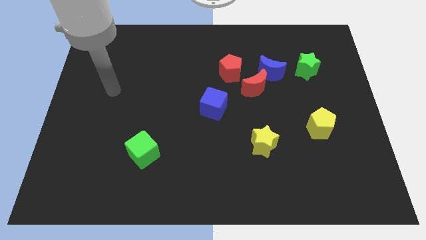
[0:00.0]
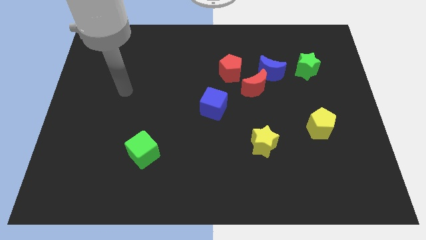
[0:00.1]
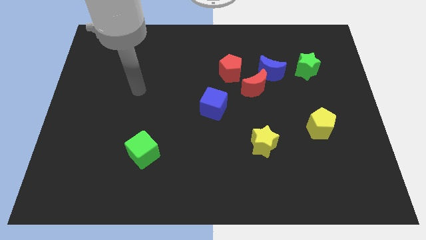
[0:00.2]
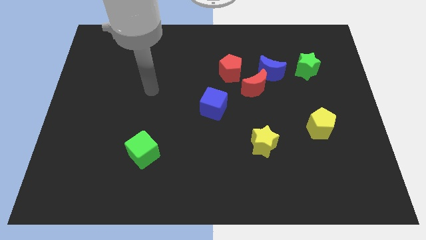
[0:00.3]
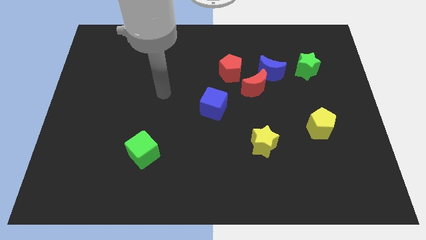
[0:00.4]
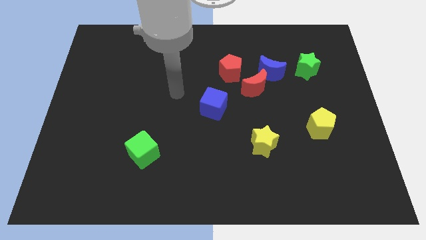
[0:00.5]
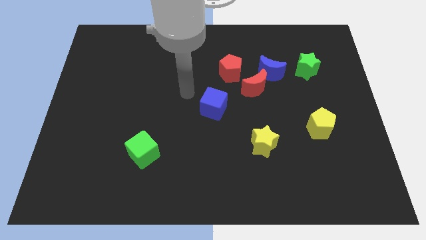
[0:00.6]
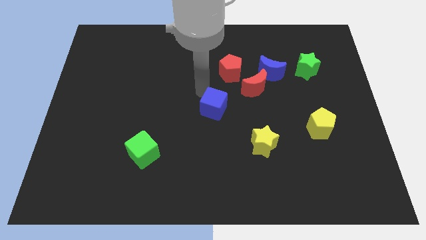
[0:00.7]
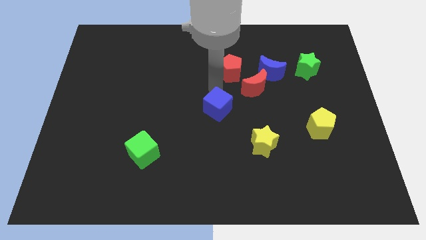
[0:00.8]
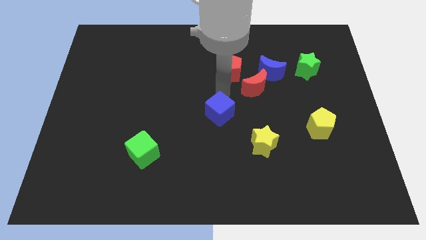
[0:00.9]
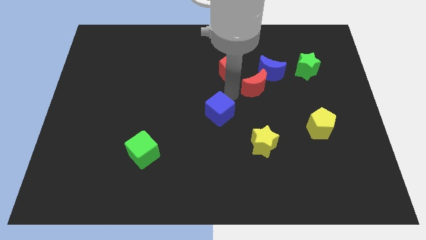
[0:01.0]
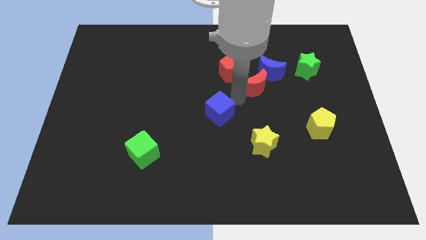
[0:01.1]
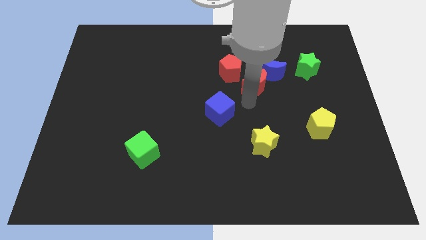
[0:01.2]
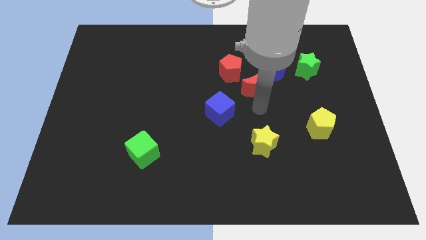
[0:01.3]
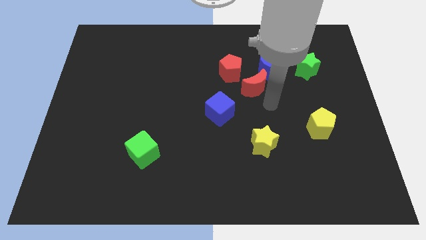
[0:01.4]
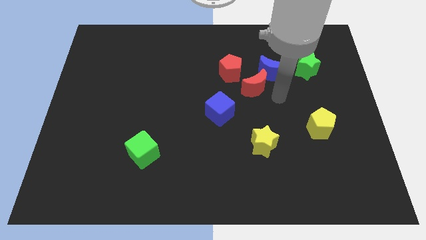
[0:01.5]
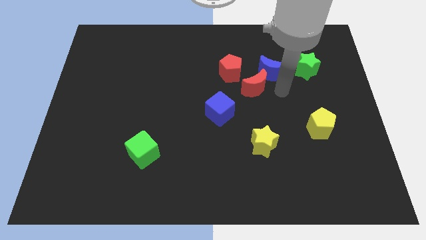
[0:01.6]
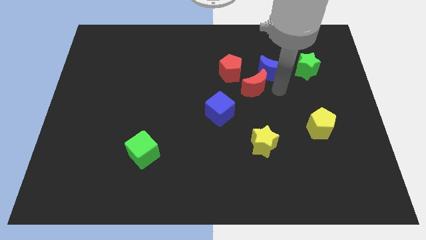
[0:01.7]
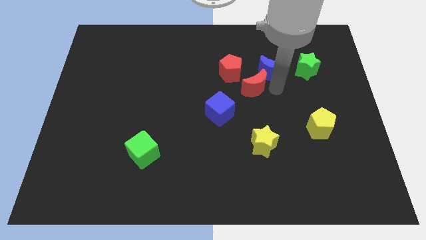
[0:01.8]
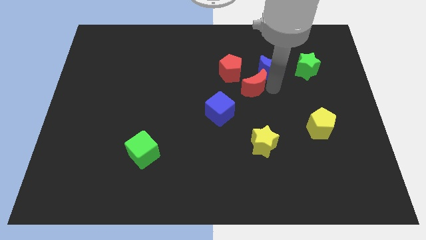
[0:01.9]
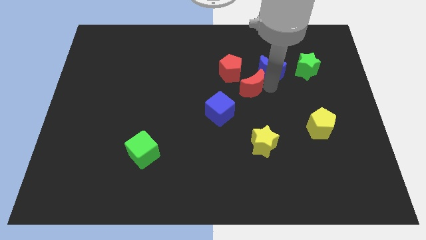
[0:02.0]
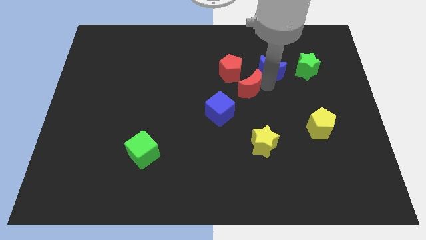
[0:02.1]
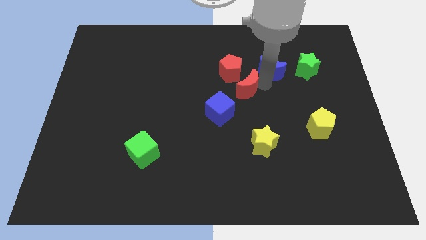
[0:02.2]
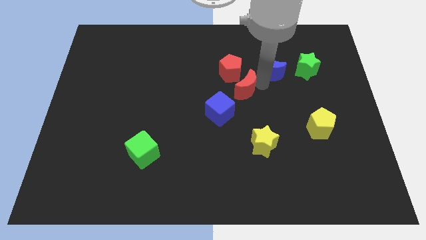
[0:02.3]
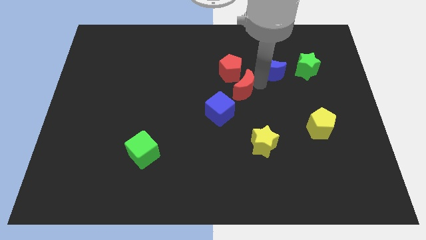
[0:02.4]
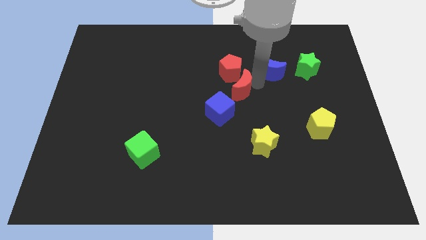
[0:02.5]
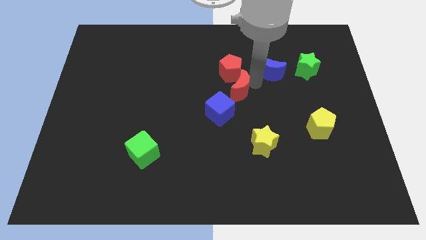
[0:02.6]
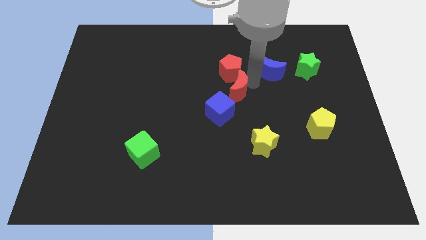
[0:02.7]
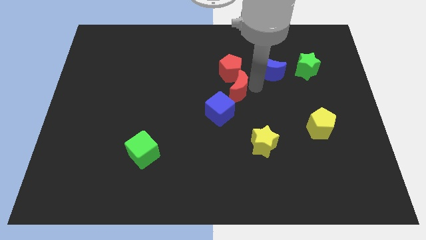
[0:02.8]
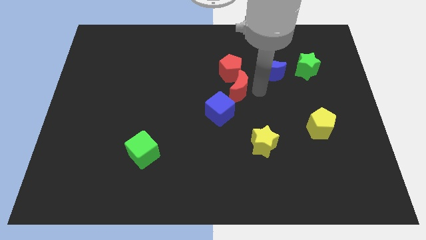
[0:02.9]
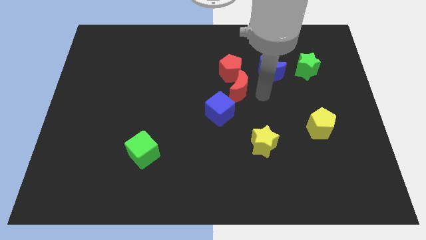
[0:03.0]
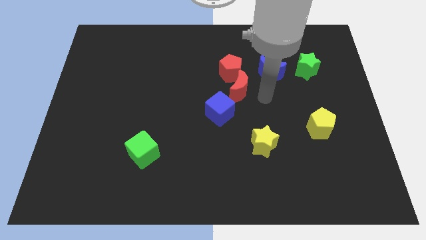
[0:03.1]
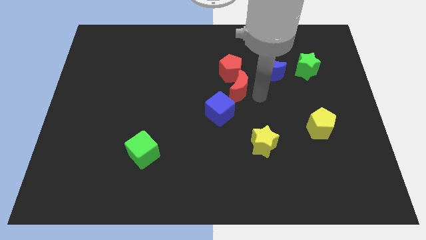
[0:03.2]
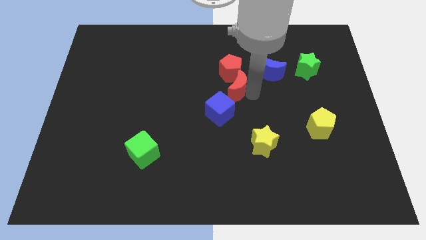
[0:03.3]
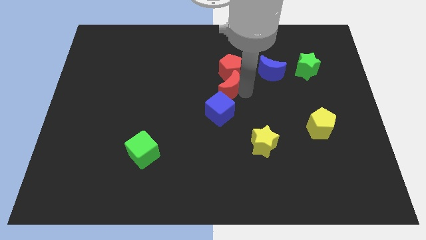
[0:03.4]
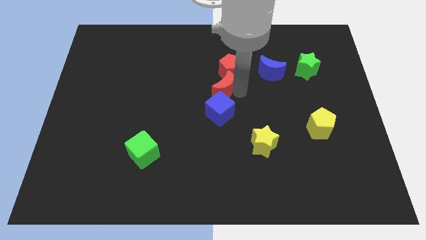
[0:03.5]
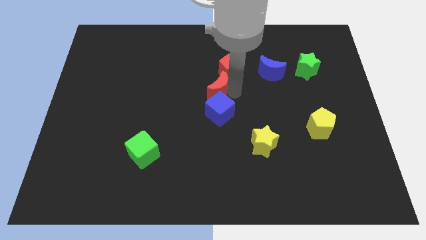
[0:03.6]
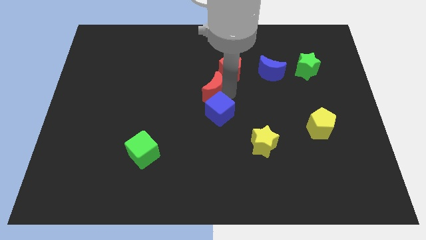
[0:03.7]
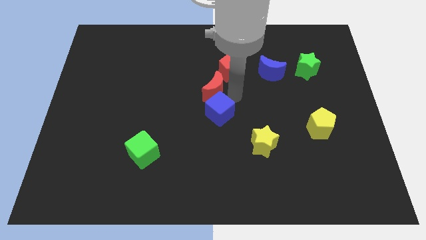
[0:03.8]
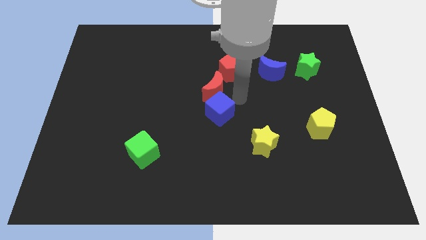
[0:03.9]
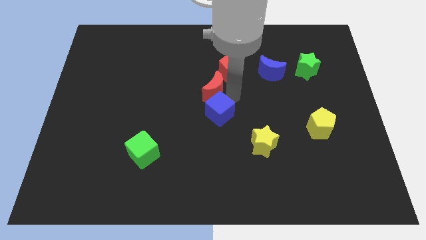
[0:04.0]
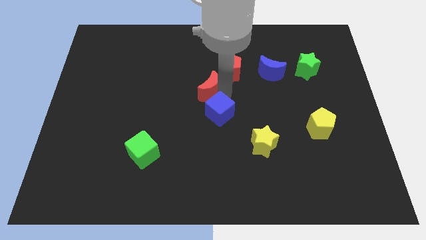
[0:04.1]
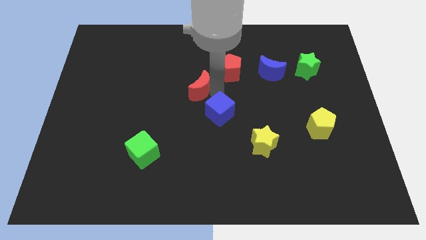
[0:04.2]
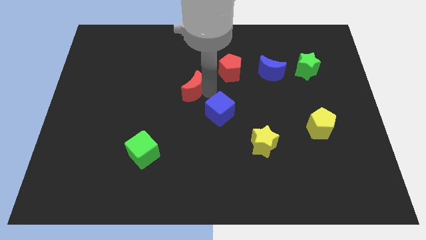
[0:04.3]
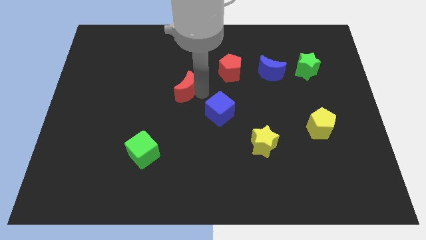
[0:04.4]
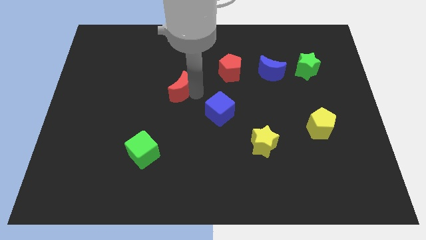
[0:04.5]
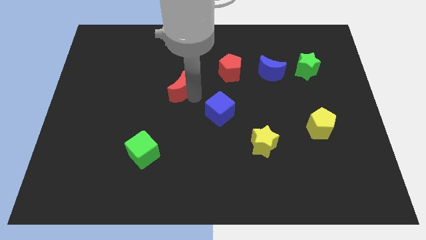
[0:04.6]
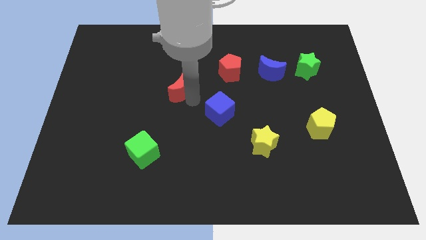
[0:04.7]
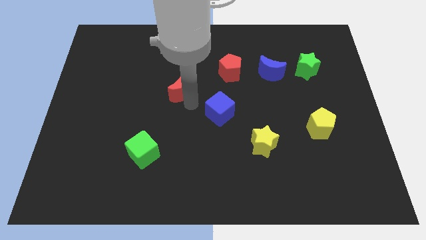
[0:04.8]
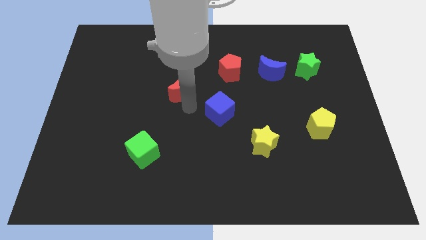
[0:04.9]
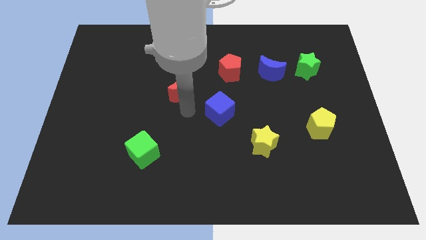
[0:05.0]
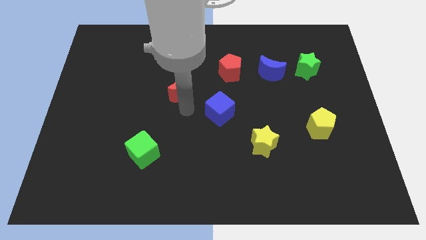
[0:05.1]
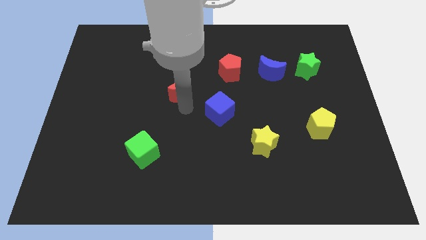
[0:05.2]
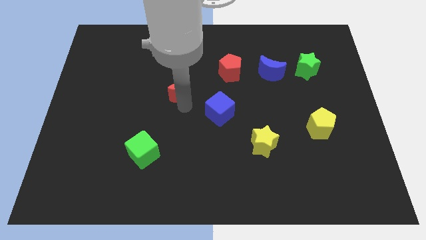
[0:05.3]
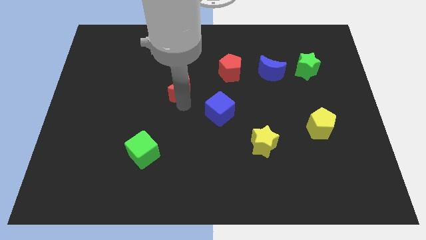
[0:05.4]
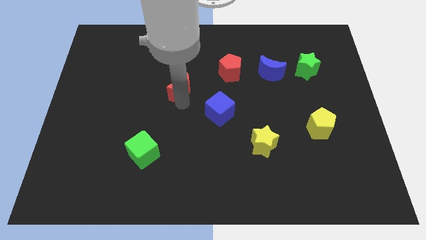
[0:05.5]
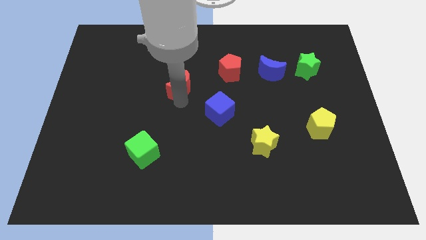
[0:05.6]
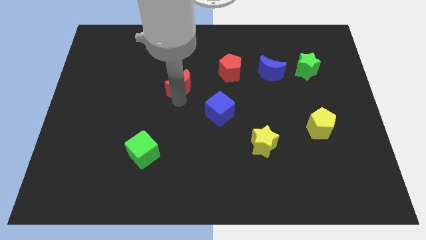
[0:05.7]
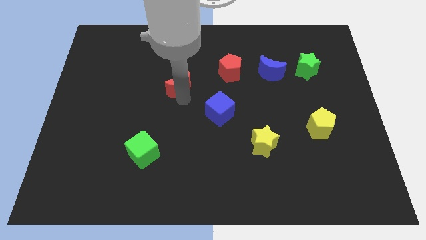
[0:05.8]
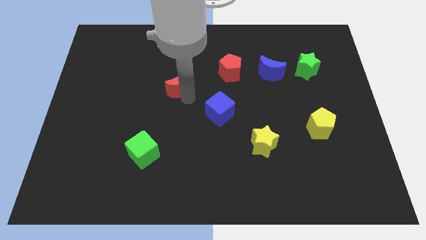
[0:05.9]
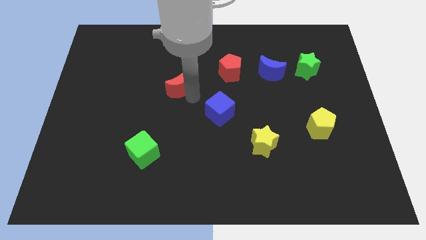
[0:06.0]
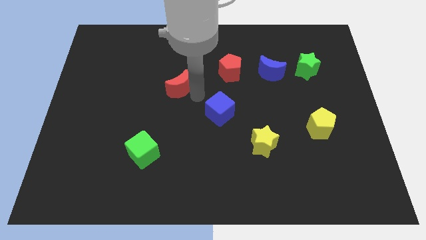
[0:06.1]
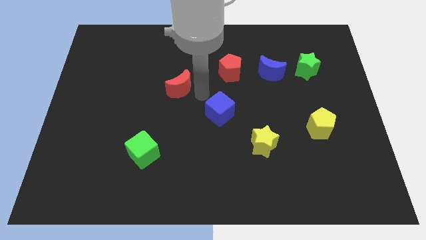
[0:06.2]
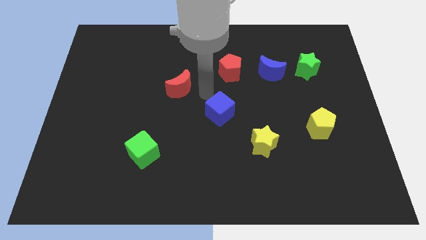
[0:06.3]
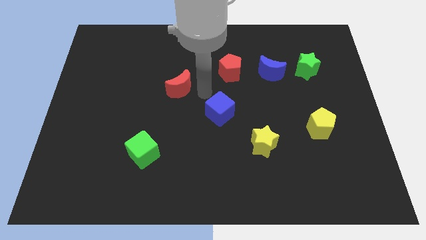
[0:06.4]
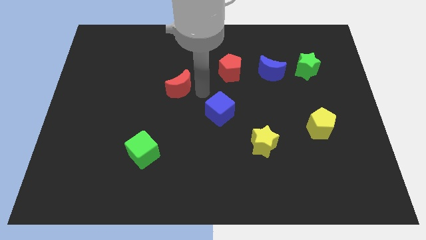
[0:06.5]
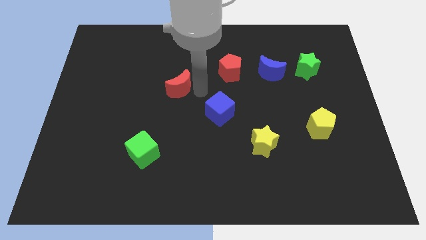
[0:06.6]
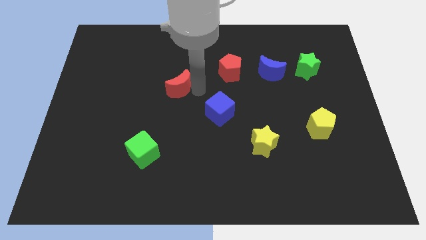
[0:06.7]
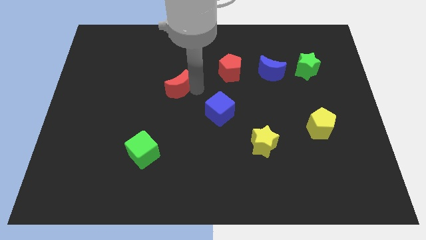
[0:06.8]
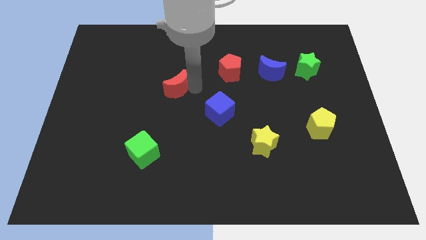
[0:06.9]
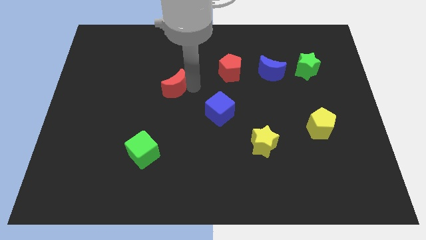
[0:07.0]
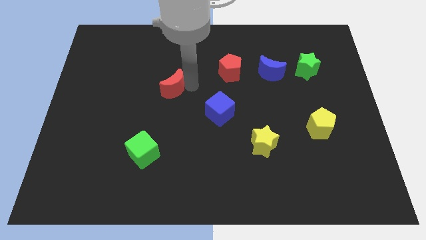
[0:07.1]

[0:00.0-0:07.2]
slide the red moon left

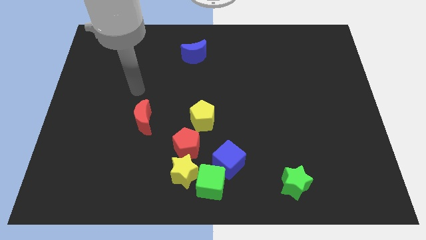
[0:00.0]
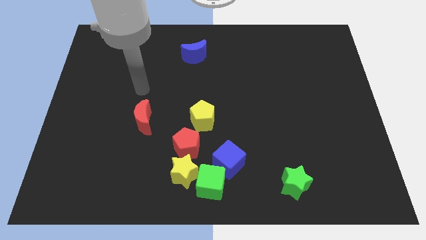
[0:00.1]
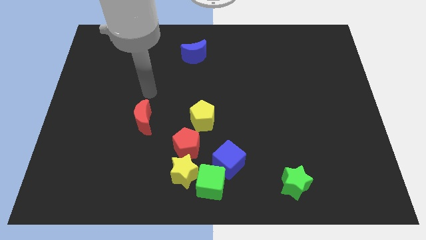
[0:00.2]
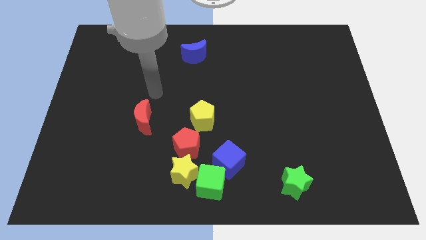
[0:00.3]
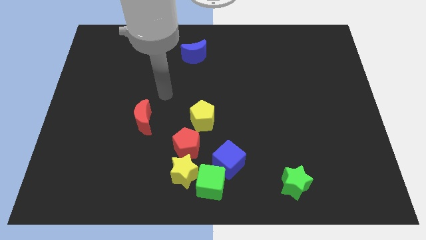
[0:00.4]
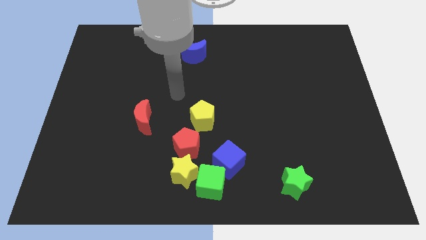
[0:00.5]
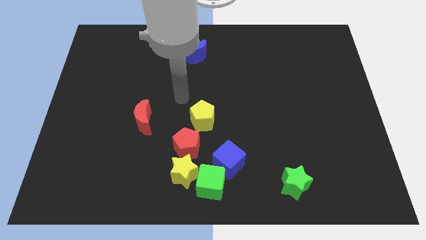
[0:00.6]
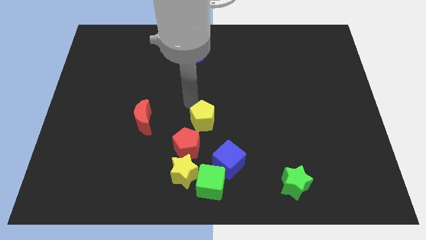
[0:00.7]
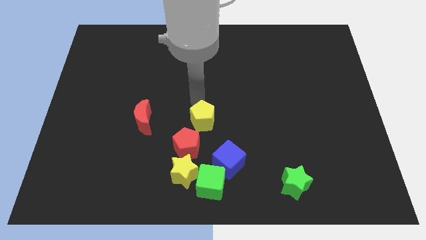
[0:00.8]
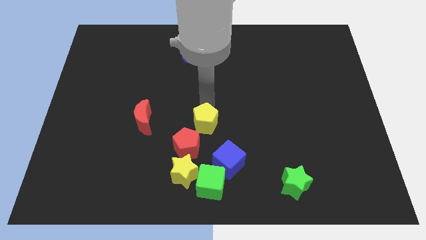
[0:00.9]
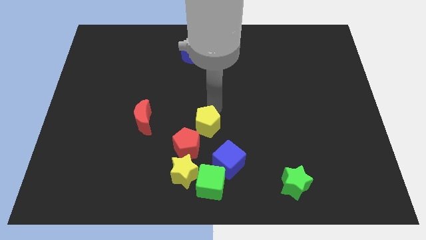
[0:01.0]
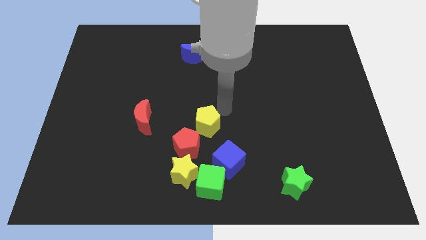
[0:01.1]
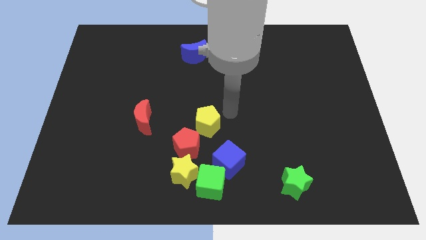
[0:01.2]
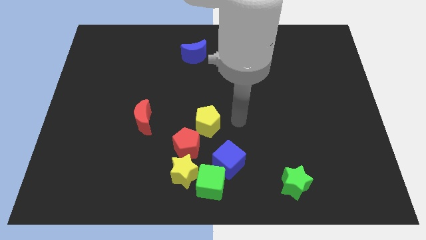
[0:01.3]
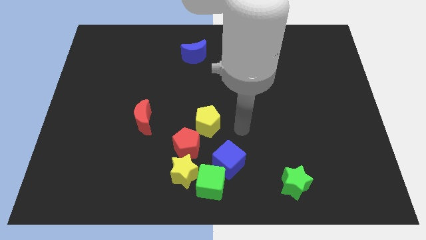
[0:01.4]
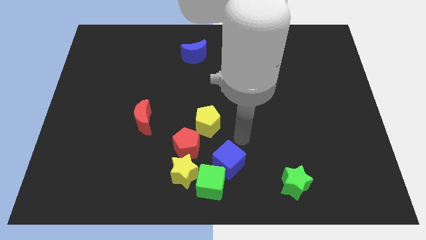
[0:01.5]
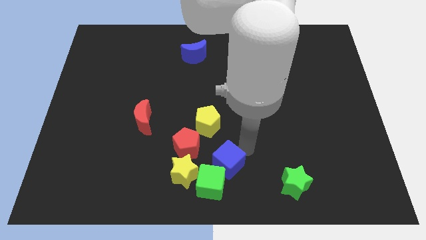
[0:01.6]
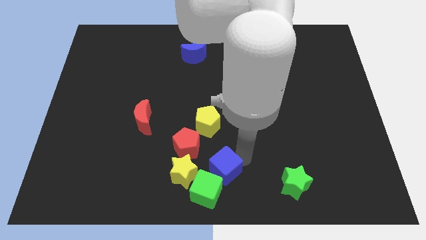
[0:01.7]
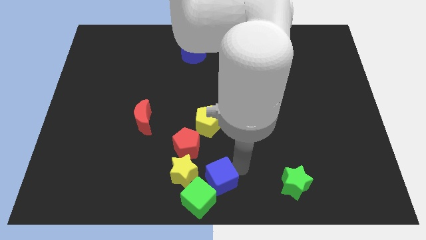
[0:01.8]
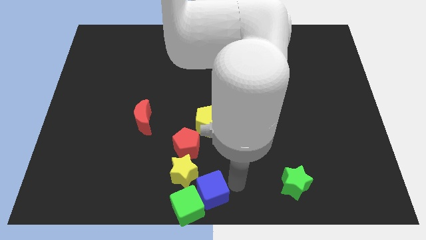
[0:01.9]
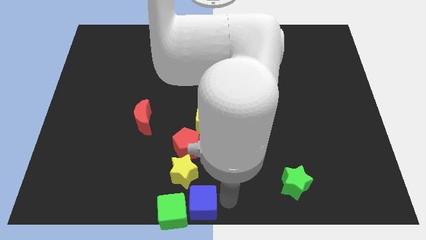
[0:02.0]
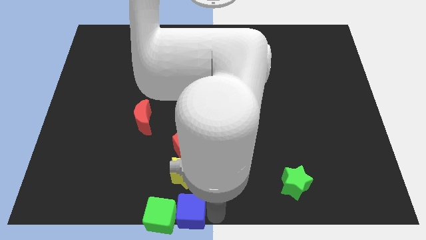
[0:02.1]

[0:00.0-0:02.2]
move the green cube left somewhat
